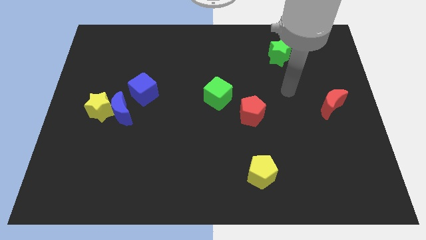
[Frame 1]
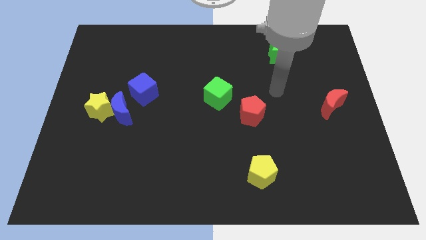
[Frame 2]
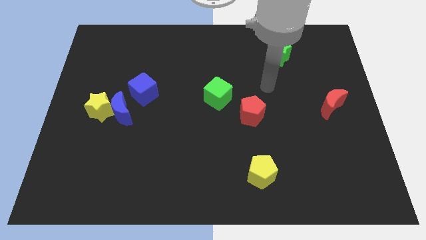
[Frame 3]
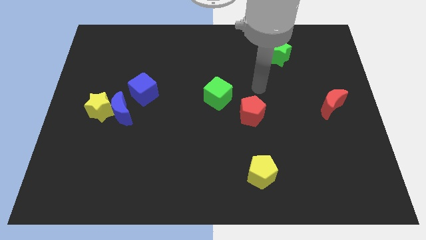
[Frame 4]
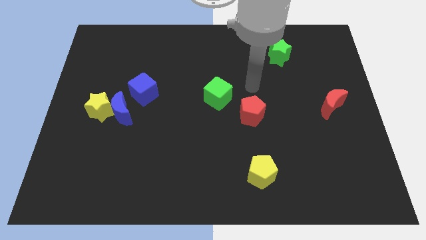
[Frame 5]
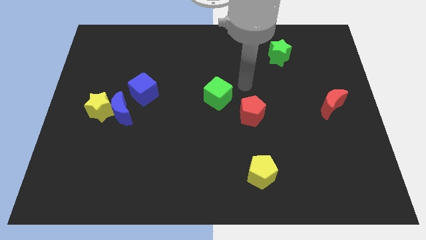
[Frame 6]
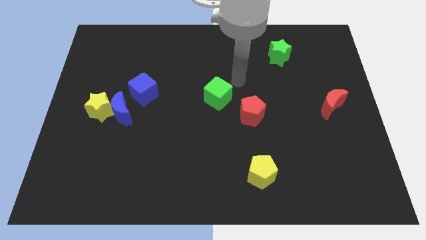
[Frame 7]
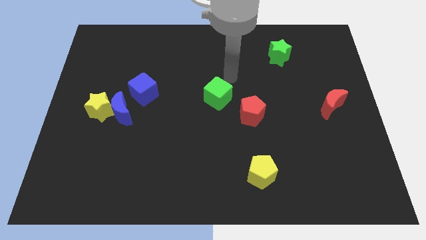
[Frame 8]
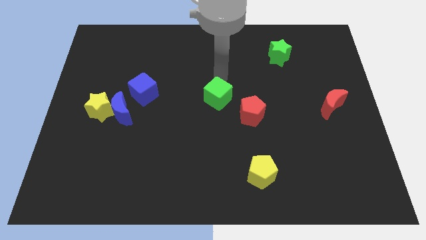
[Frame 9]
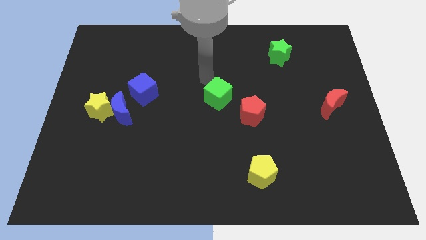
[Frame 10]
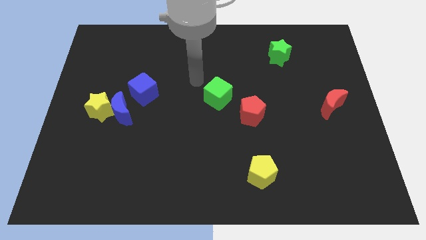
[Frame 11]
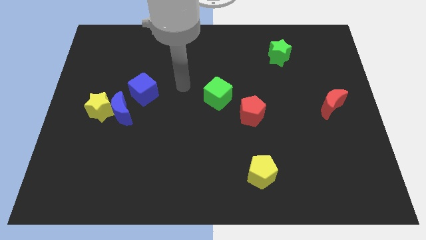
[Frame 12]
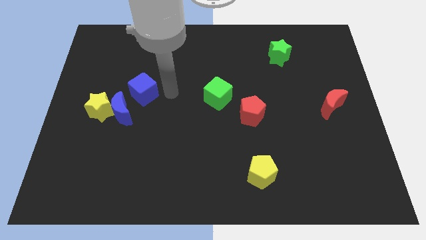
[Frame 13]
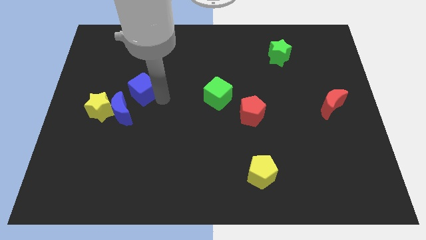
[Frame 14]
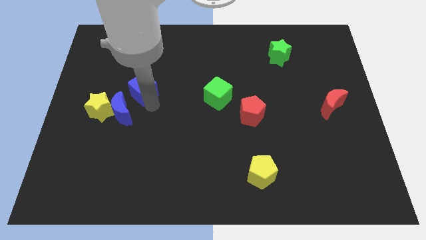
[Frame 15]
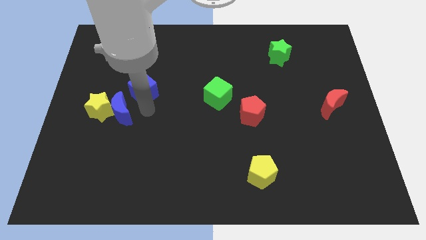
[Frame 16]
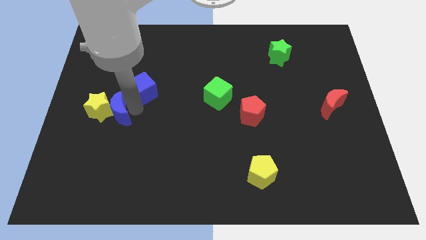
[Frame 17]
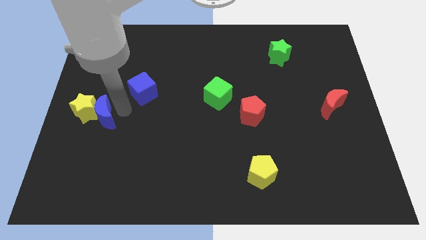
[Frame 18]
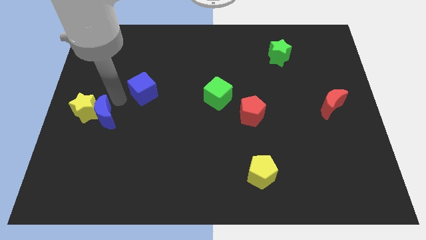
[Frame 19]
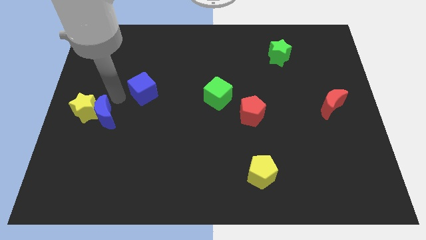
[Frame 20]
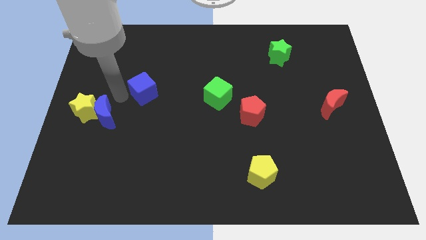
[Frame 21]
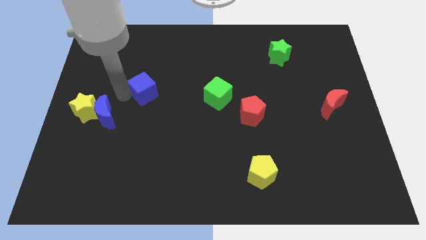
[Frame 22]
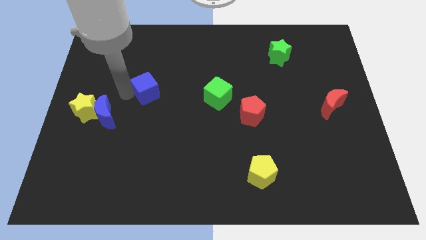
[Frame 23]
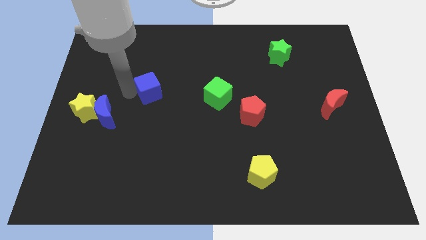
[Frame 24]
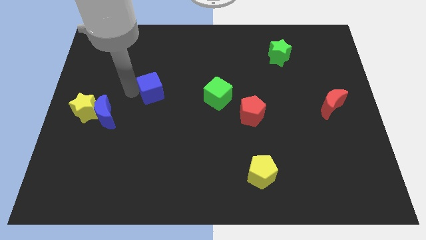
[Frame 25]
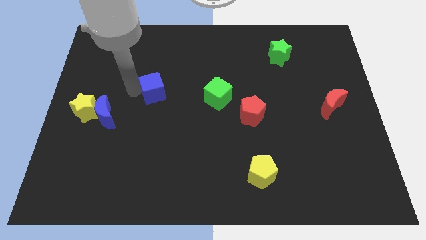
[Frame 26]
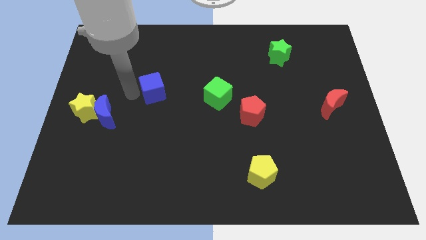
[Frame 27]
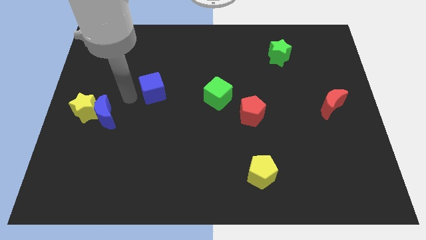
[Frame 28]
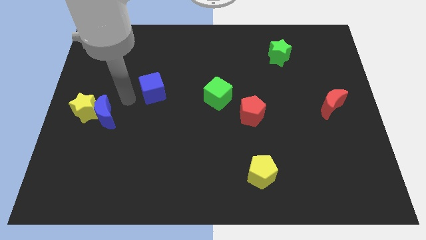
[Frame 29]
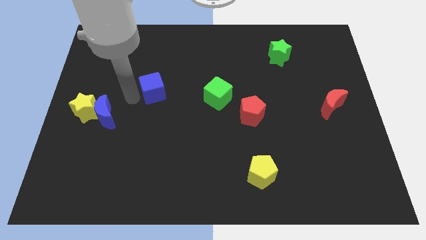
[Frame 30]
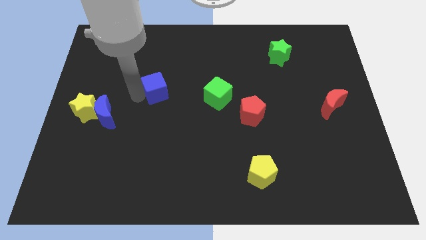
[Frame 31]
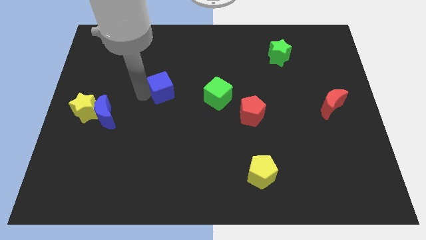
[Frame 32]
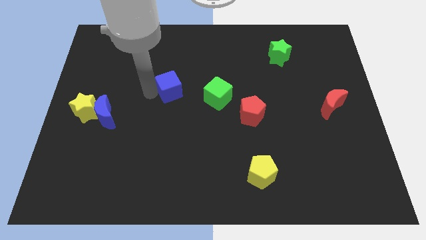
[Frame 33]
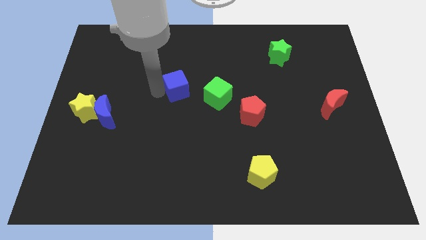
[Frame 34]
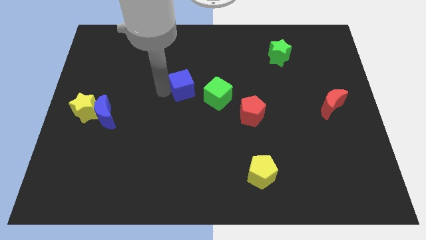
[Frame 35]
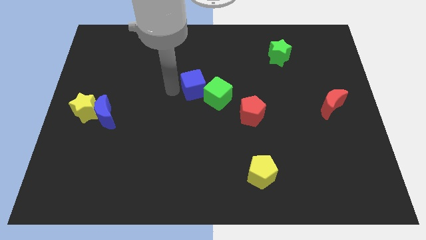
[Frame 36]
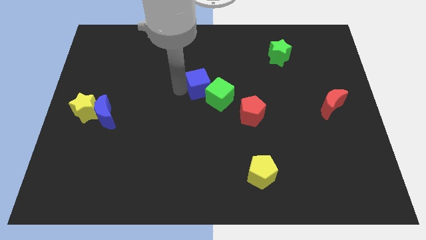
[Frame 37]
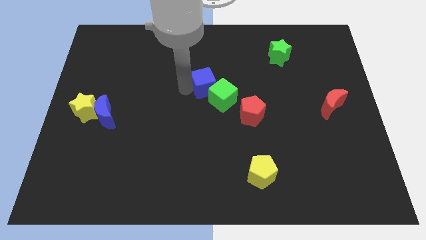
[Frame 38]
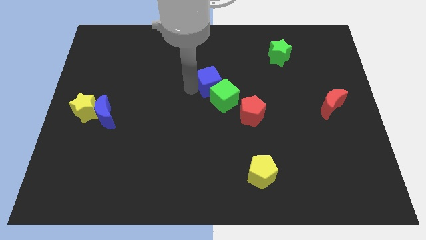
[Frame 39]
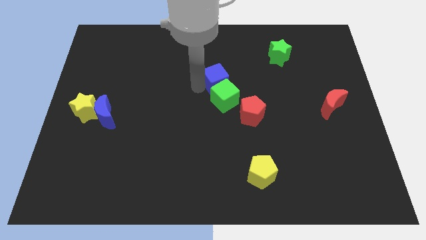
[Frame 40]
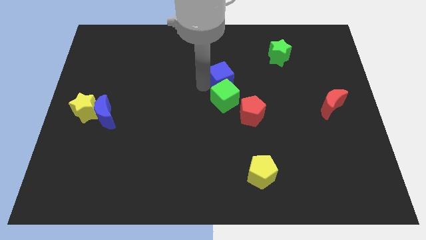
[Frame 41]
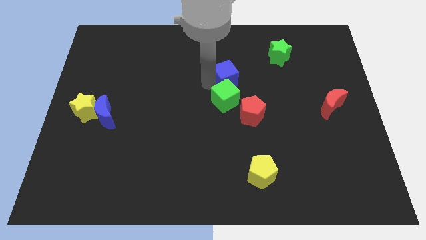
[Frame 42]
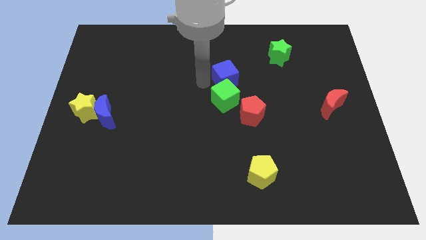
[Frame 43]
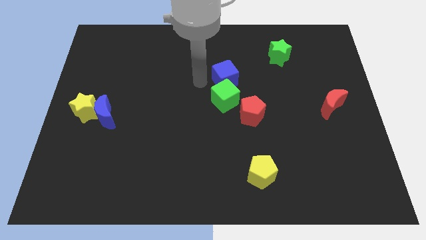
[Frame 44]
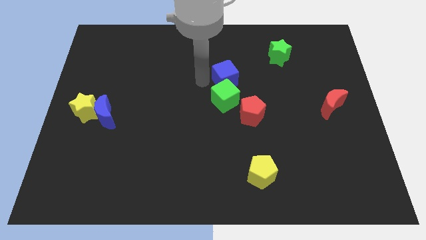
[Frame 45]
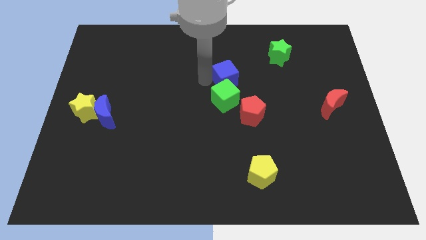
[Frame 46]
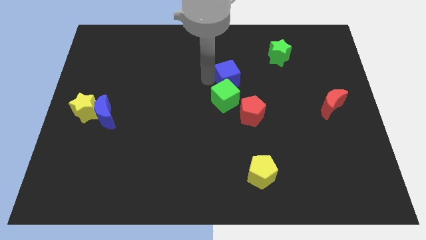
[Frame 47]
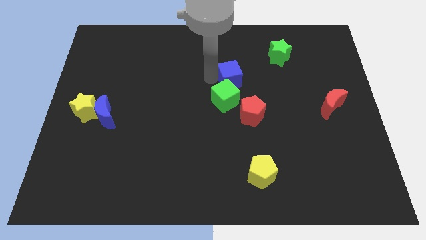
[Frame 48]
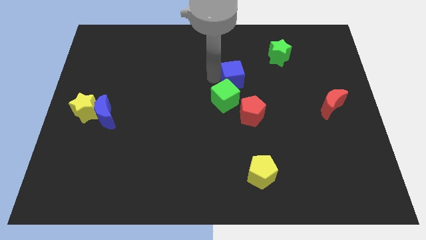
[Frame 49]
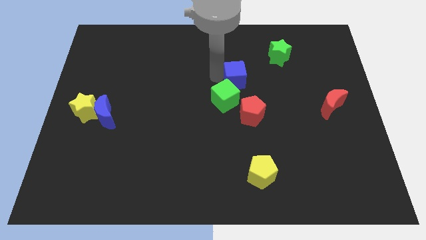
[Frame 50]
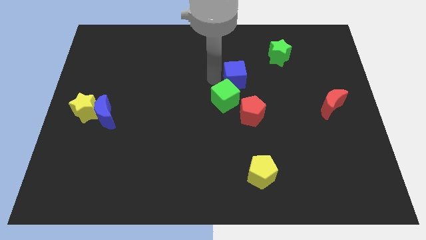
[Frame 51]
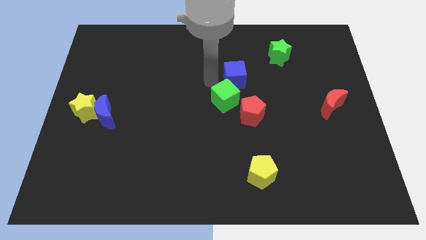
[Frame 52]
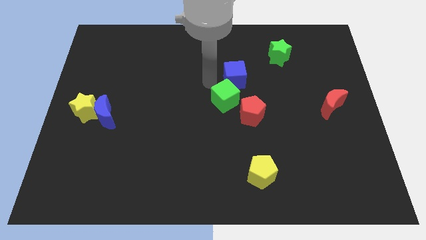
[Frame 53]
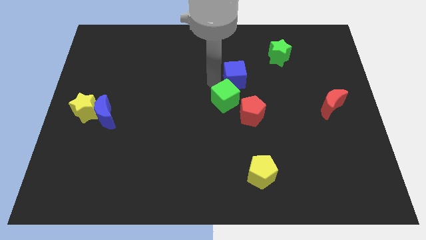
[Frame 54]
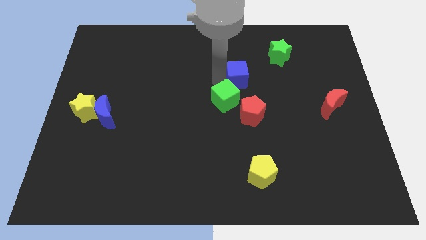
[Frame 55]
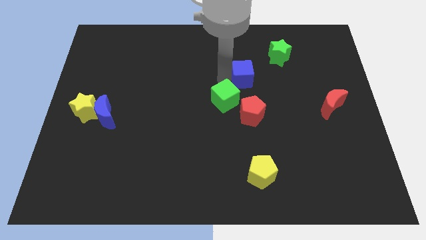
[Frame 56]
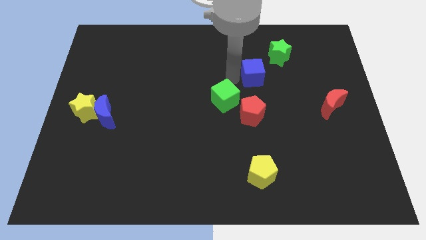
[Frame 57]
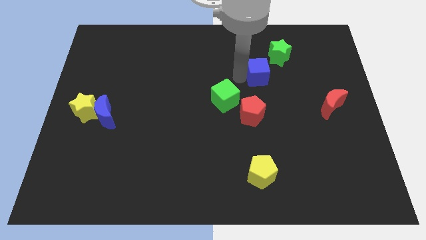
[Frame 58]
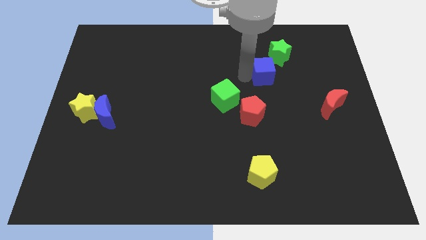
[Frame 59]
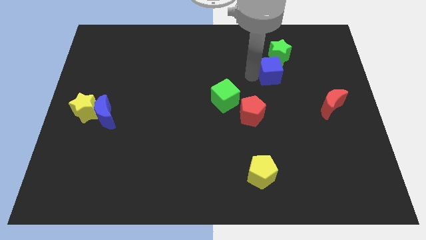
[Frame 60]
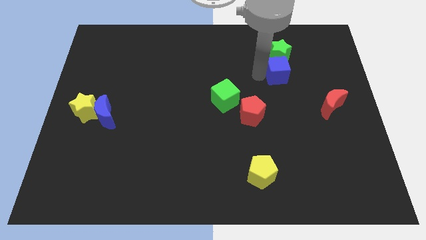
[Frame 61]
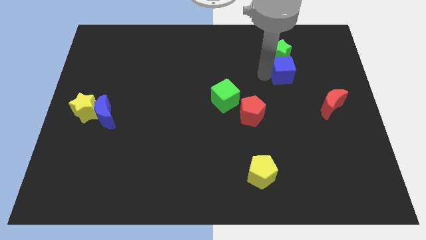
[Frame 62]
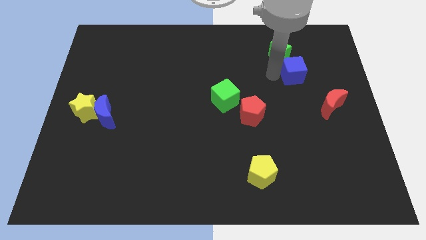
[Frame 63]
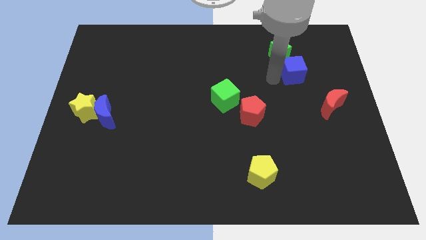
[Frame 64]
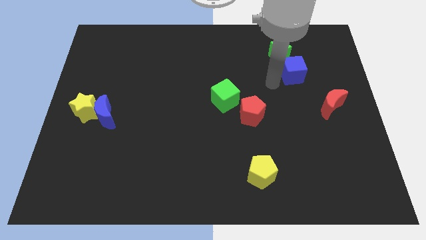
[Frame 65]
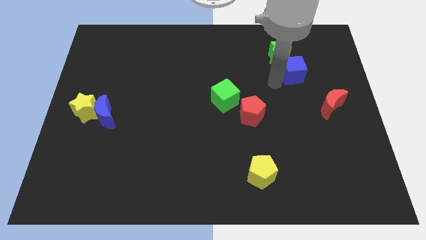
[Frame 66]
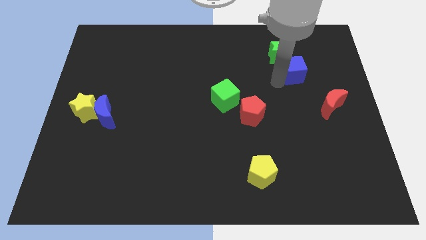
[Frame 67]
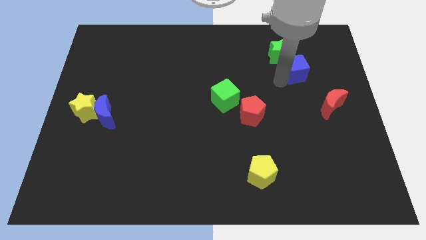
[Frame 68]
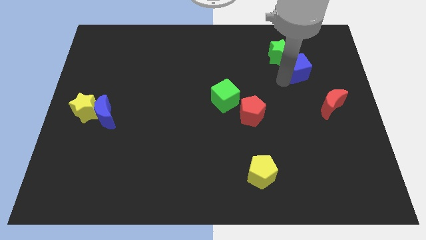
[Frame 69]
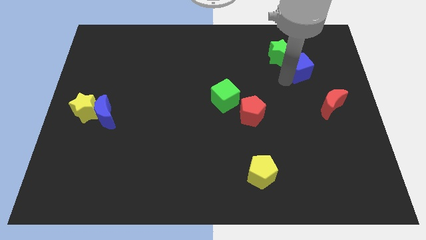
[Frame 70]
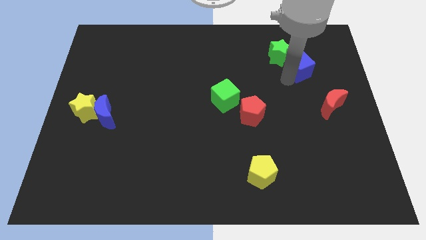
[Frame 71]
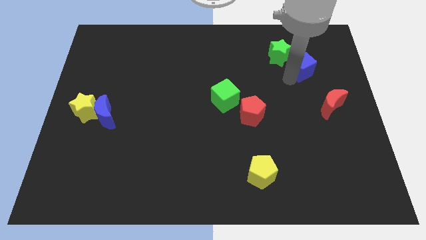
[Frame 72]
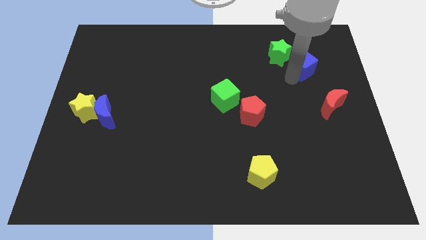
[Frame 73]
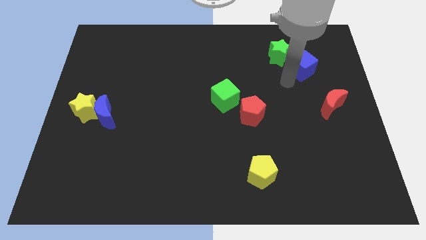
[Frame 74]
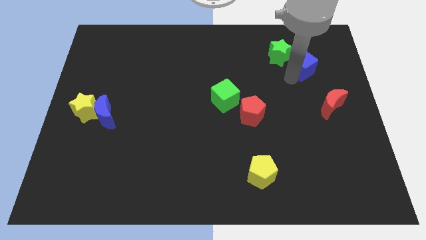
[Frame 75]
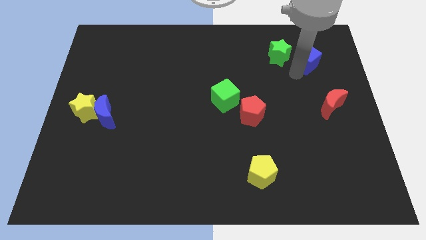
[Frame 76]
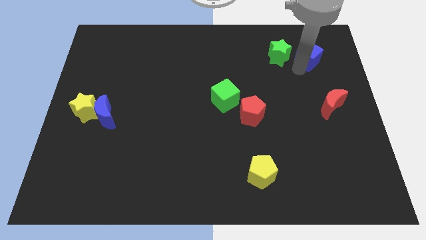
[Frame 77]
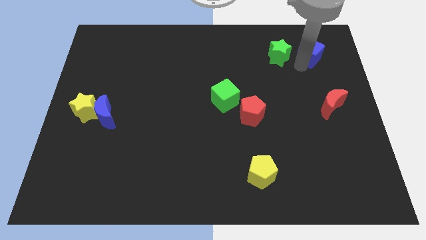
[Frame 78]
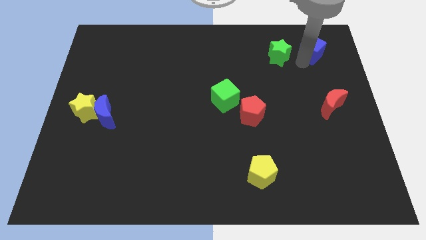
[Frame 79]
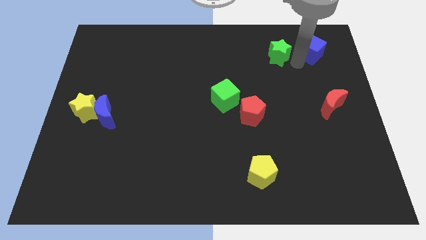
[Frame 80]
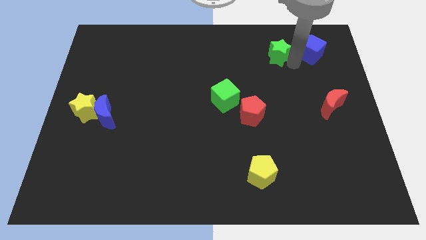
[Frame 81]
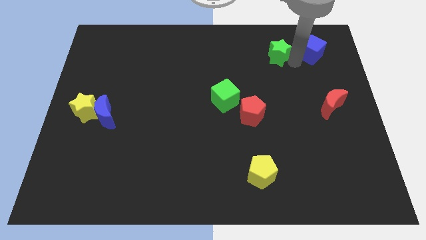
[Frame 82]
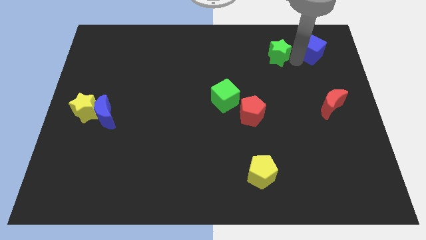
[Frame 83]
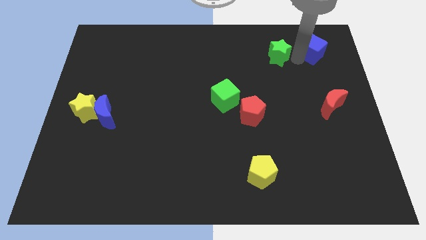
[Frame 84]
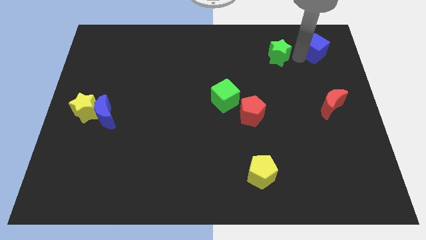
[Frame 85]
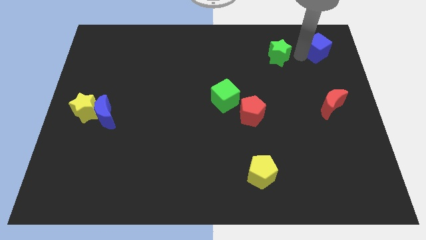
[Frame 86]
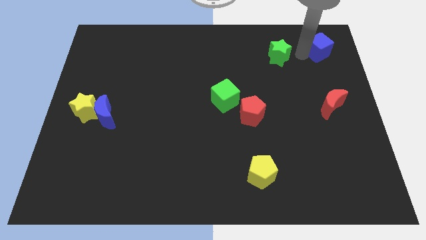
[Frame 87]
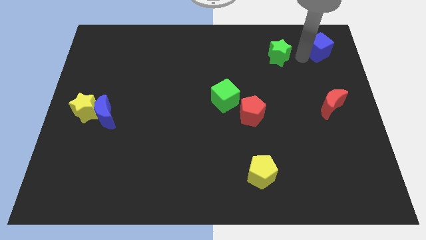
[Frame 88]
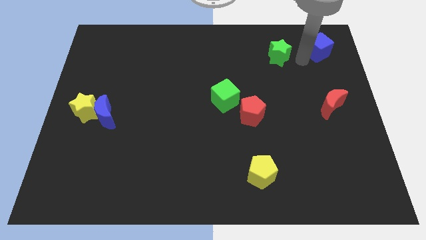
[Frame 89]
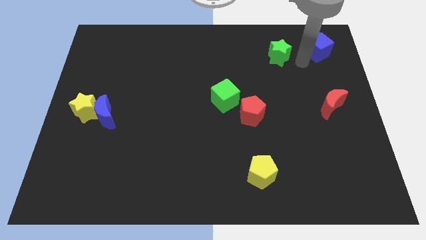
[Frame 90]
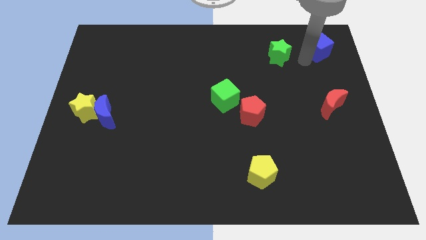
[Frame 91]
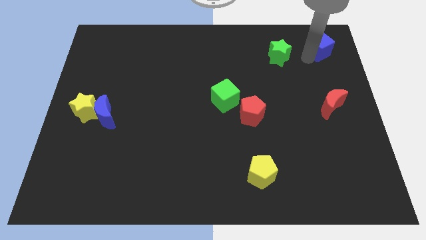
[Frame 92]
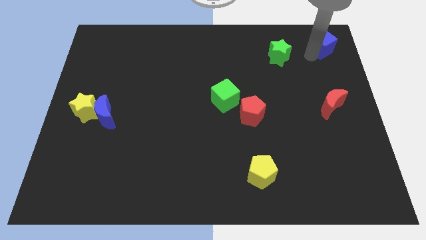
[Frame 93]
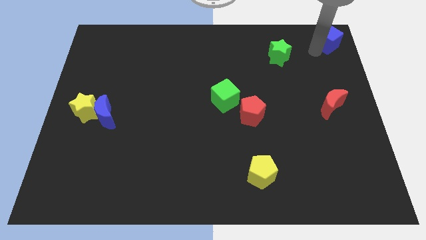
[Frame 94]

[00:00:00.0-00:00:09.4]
push the blue cube to the top right
